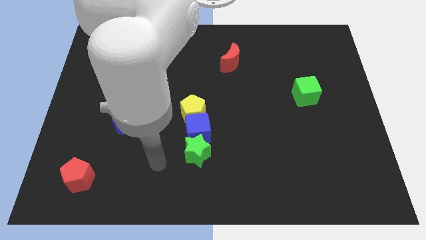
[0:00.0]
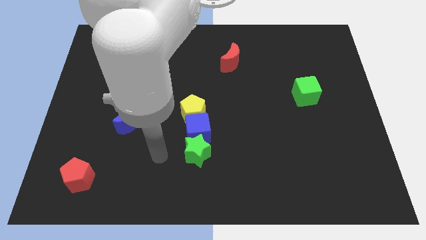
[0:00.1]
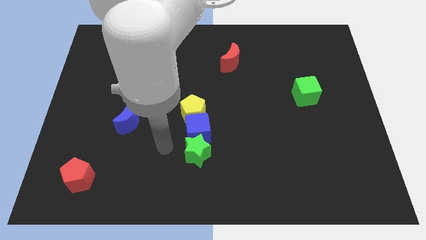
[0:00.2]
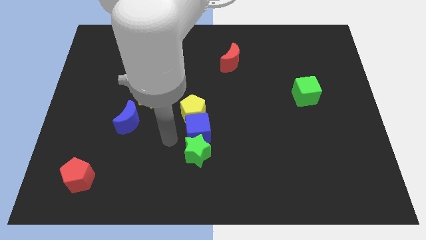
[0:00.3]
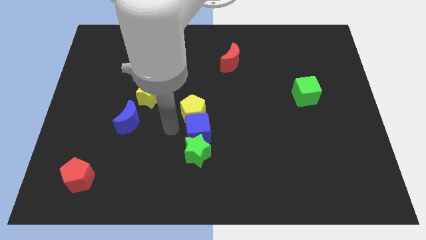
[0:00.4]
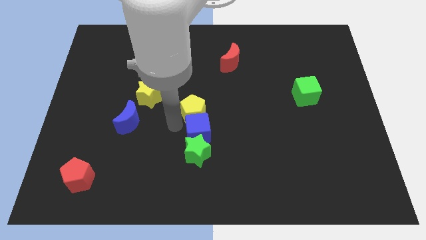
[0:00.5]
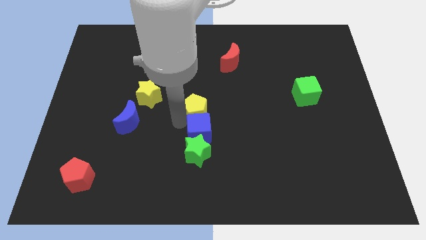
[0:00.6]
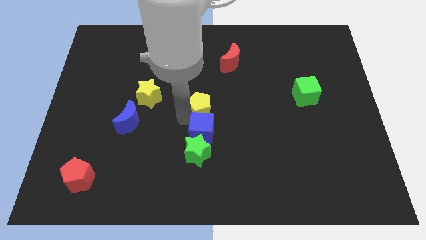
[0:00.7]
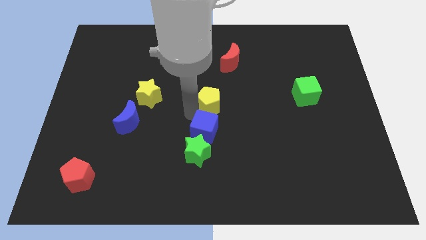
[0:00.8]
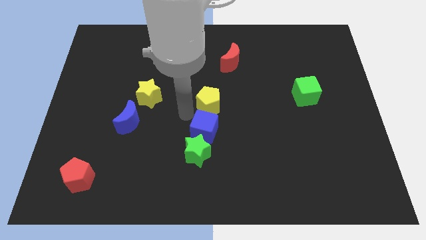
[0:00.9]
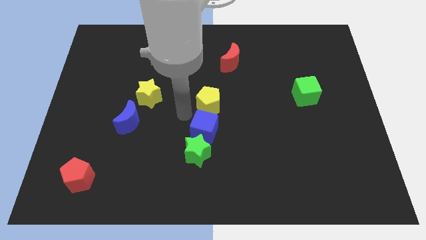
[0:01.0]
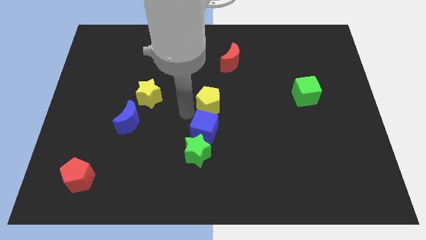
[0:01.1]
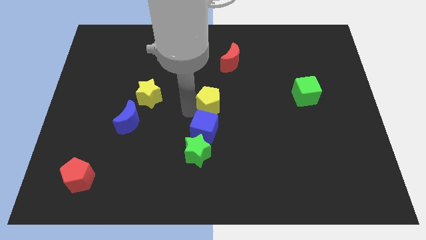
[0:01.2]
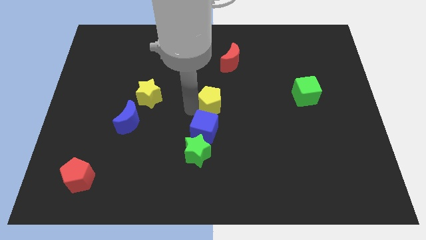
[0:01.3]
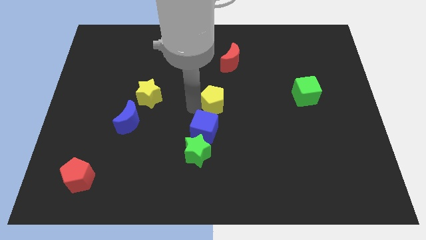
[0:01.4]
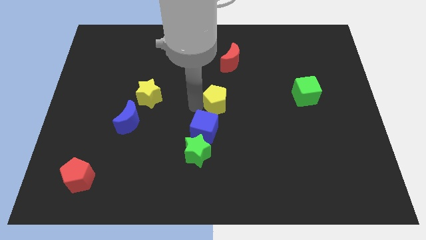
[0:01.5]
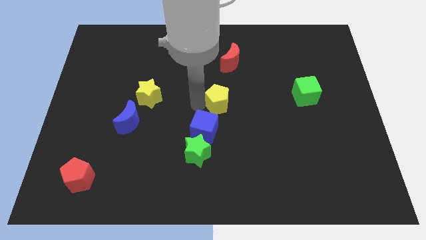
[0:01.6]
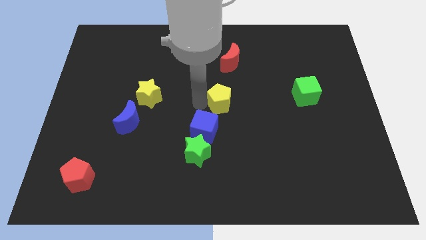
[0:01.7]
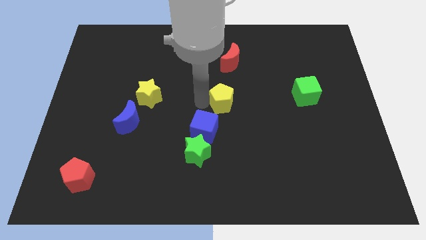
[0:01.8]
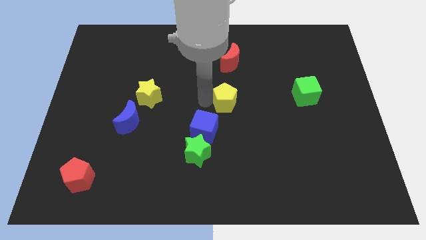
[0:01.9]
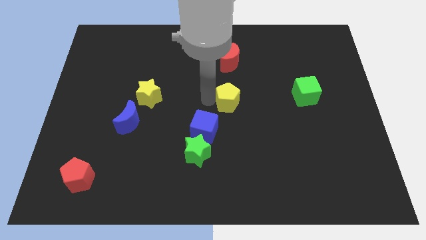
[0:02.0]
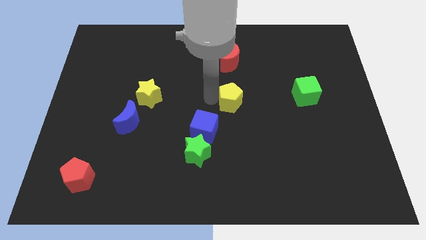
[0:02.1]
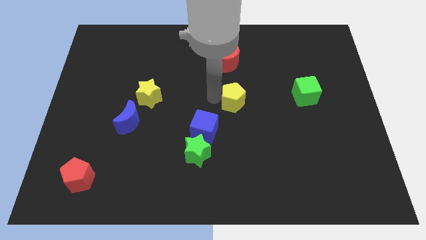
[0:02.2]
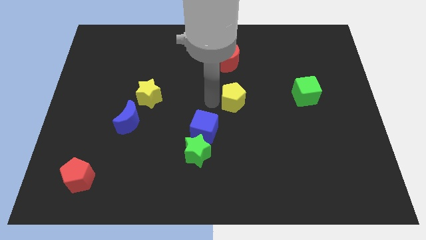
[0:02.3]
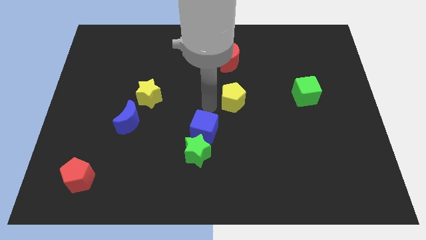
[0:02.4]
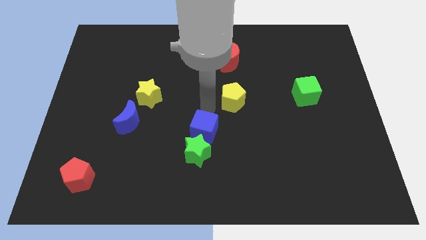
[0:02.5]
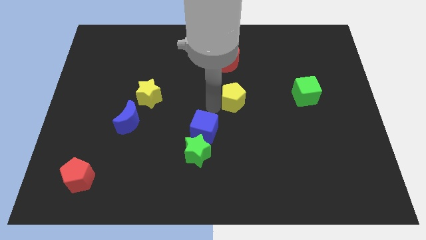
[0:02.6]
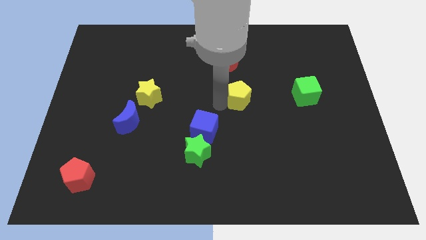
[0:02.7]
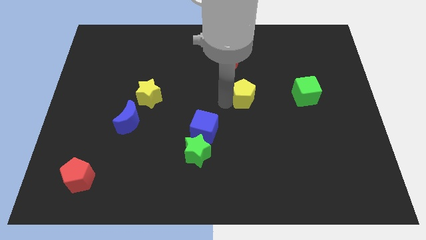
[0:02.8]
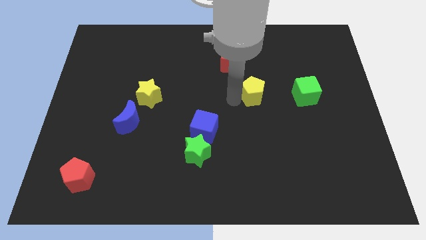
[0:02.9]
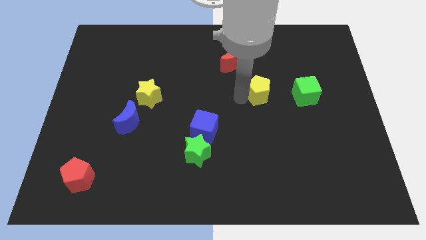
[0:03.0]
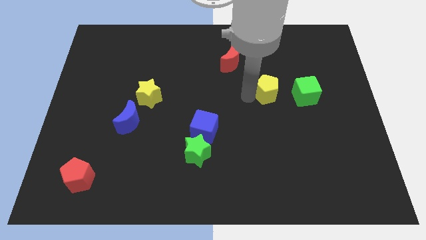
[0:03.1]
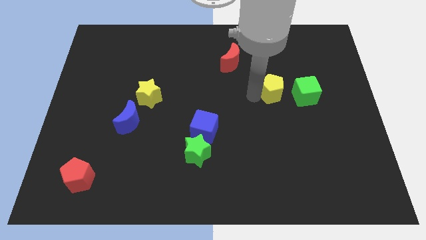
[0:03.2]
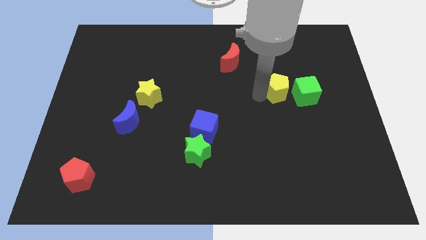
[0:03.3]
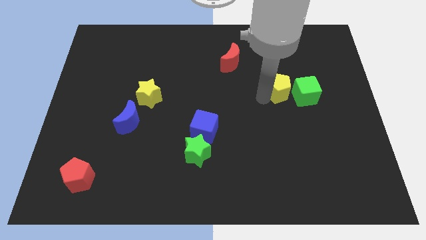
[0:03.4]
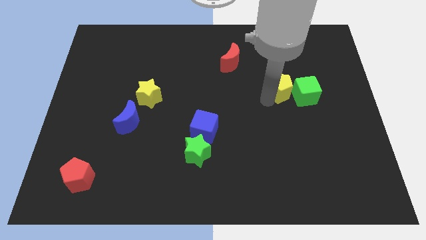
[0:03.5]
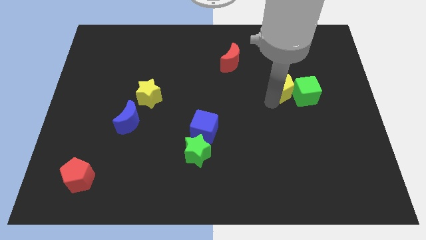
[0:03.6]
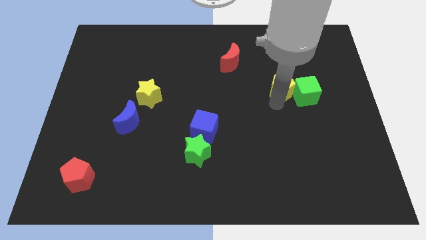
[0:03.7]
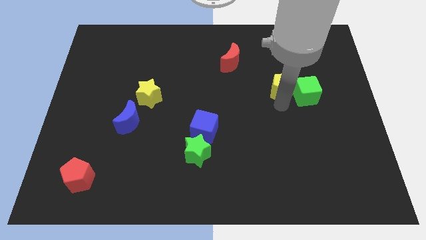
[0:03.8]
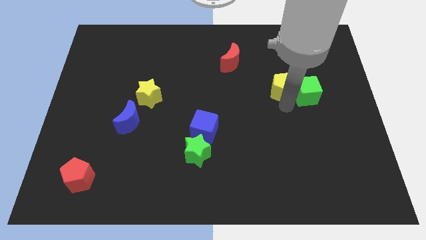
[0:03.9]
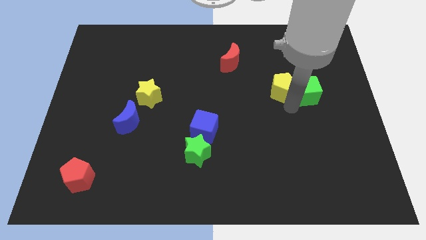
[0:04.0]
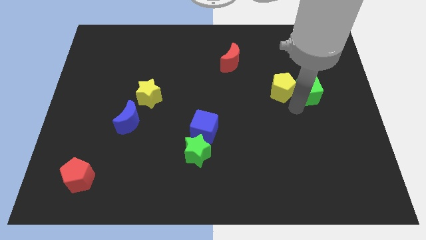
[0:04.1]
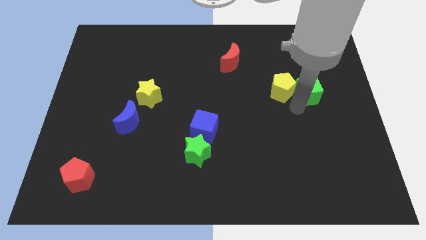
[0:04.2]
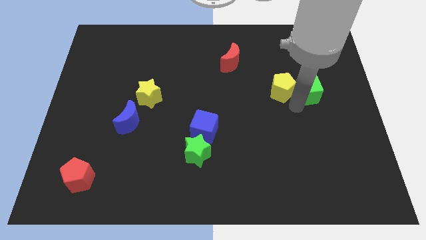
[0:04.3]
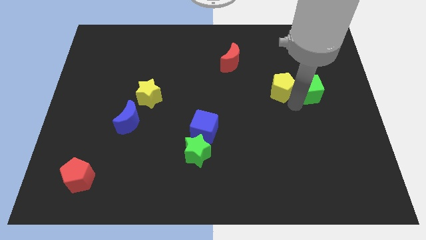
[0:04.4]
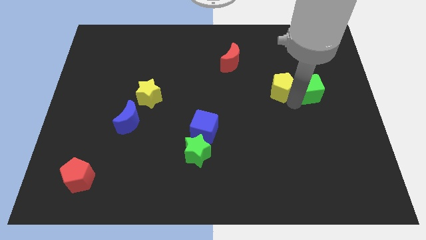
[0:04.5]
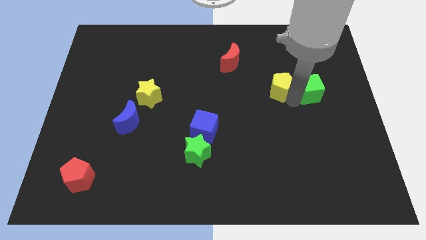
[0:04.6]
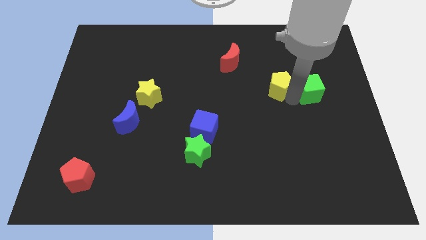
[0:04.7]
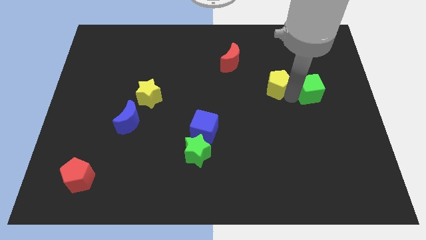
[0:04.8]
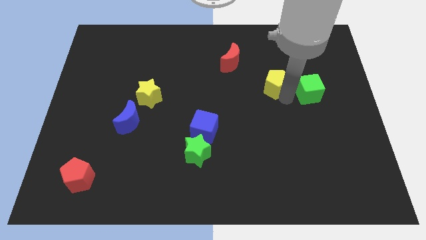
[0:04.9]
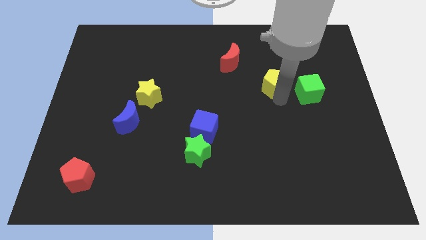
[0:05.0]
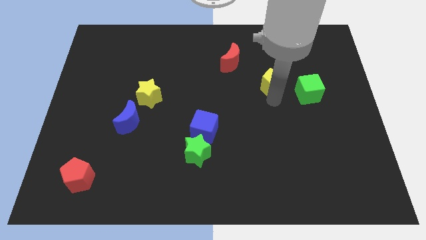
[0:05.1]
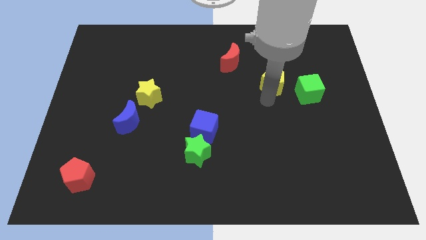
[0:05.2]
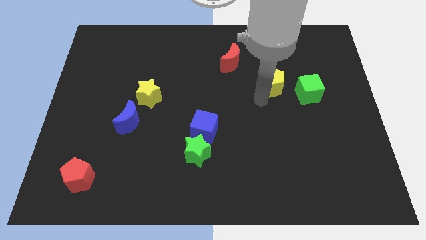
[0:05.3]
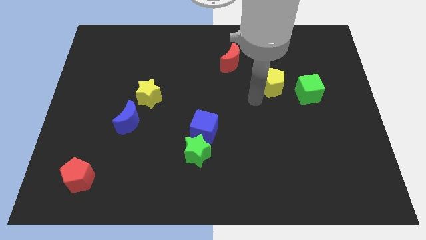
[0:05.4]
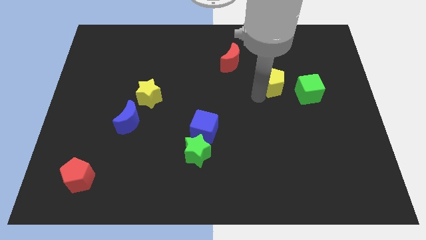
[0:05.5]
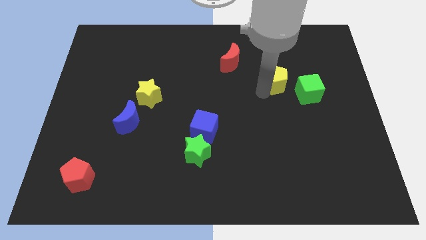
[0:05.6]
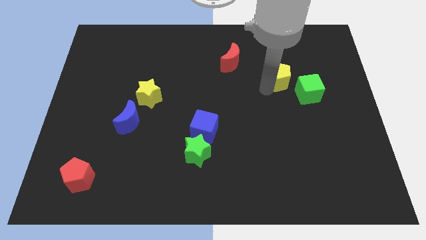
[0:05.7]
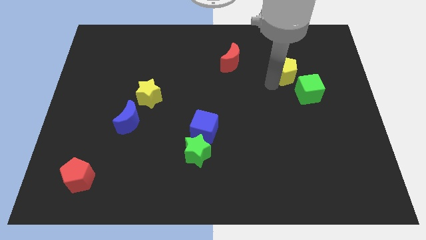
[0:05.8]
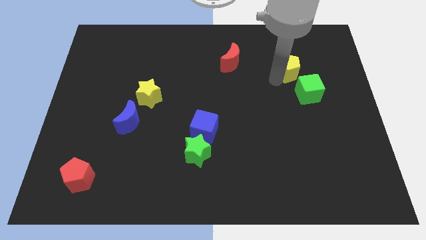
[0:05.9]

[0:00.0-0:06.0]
slide the yellow pentagon to the top of the green cube

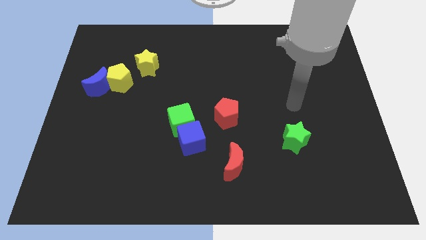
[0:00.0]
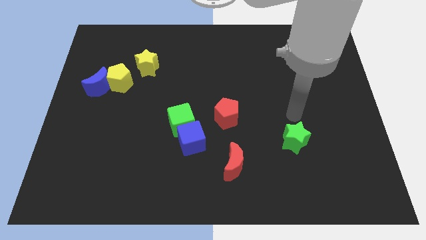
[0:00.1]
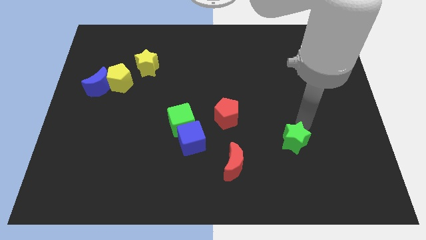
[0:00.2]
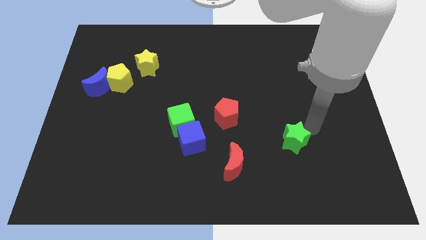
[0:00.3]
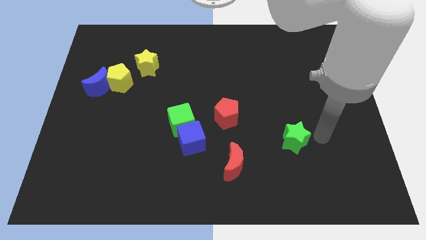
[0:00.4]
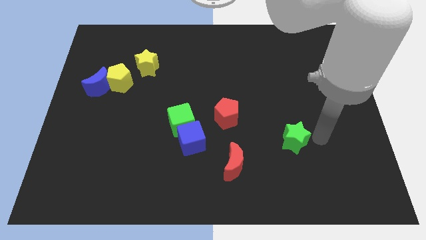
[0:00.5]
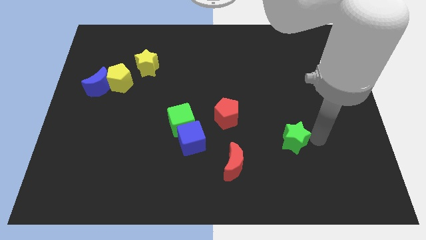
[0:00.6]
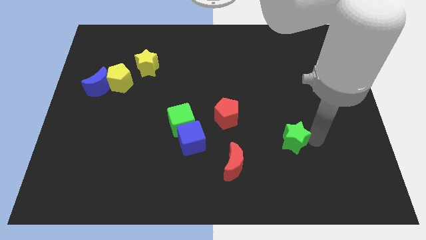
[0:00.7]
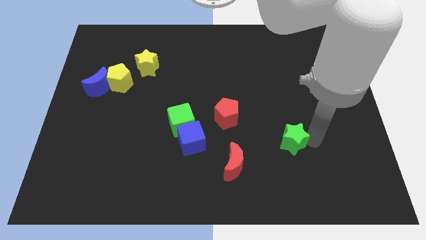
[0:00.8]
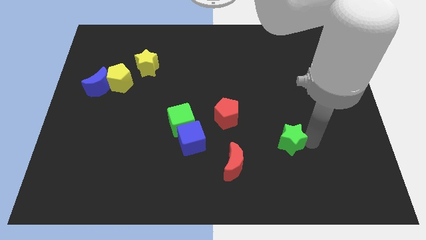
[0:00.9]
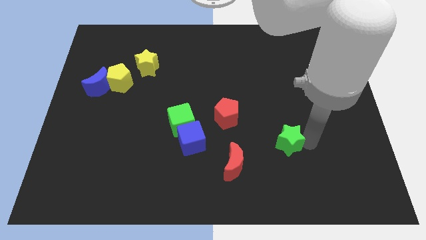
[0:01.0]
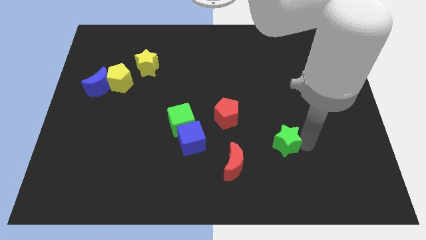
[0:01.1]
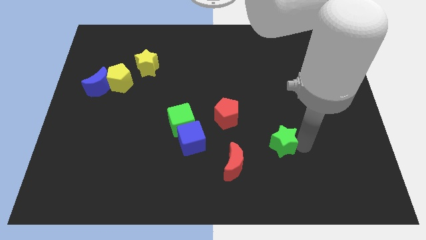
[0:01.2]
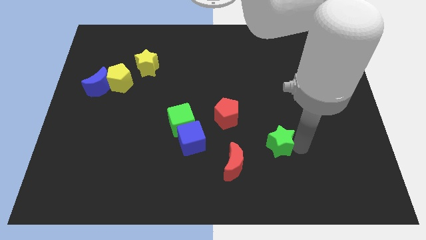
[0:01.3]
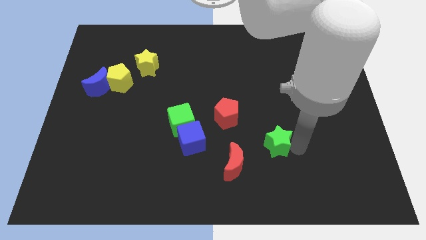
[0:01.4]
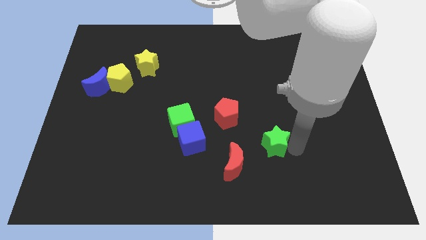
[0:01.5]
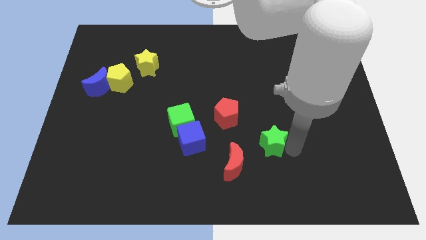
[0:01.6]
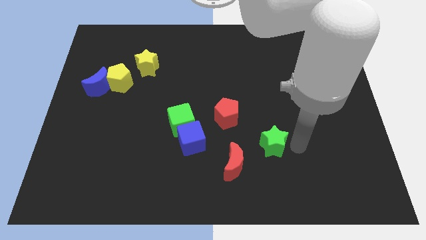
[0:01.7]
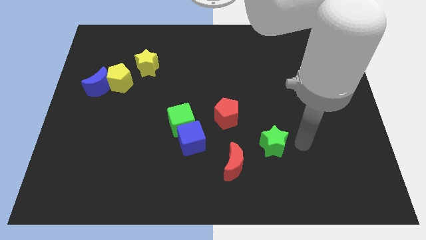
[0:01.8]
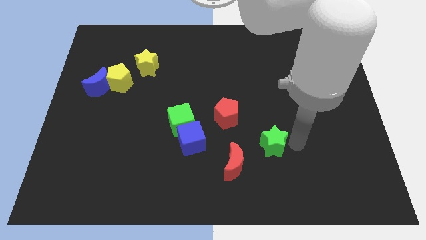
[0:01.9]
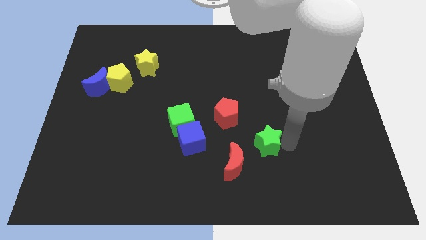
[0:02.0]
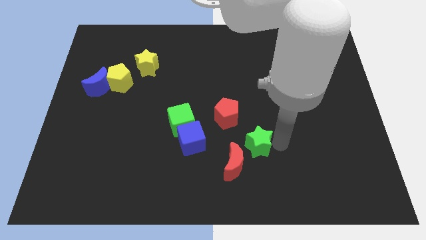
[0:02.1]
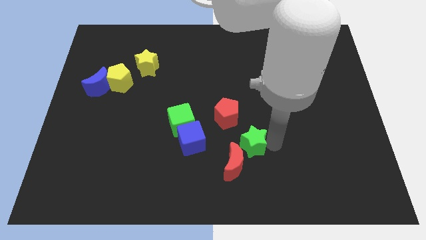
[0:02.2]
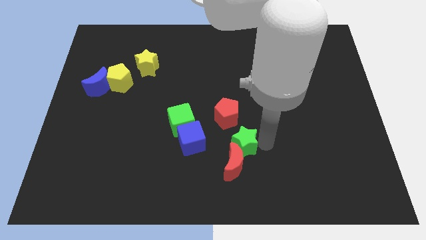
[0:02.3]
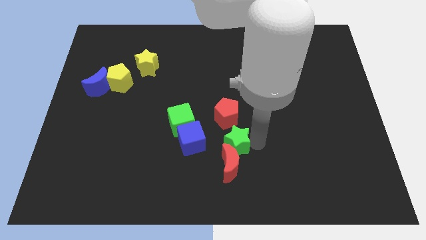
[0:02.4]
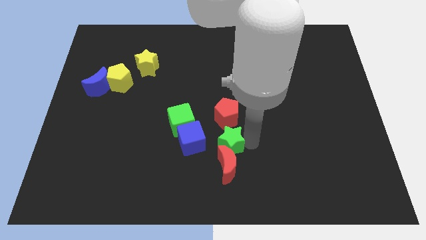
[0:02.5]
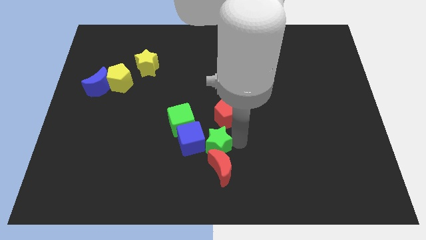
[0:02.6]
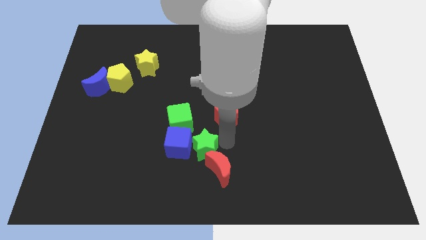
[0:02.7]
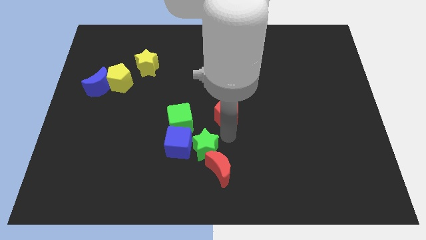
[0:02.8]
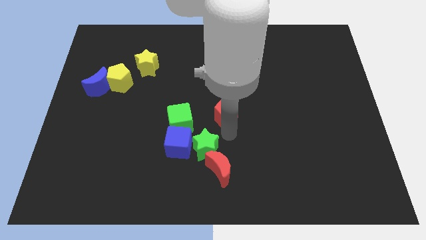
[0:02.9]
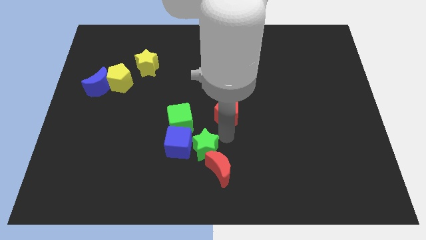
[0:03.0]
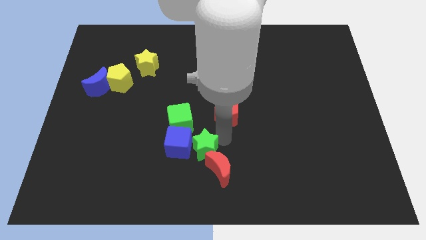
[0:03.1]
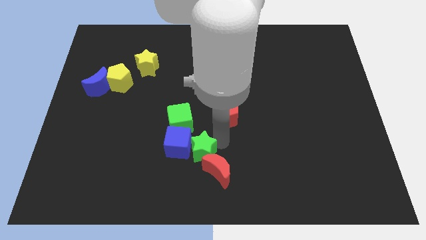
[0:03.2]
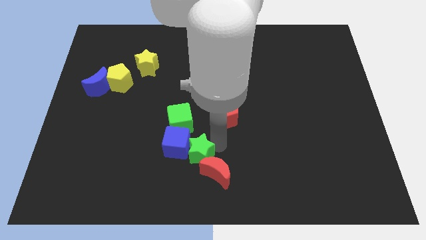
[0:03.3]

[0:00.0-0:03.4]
put the green star just left of the red moon
